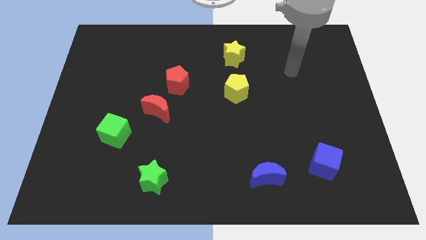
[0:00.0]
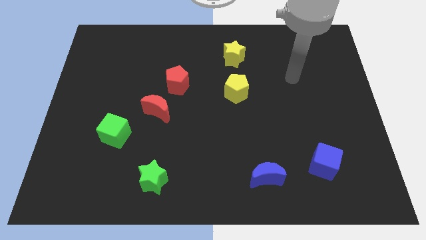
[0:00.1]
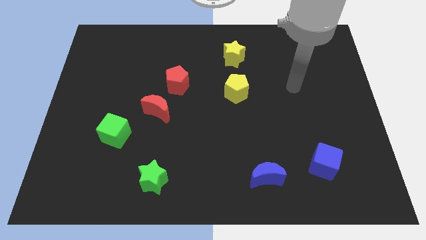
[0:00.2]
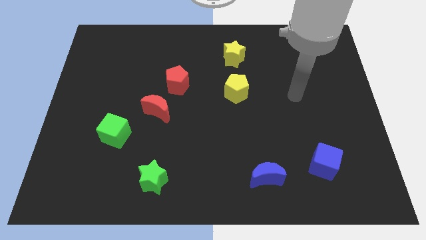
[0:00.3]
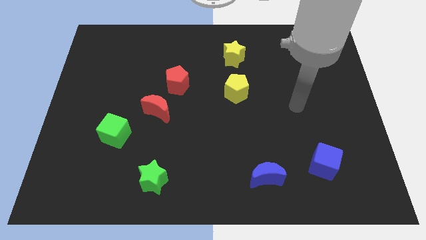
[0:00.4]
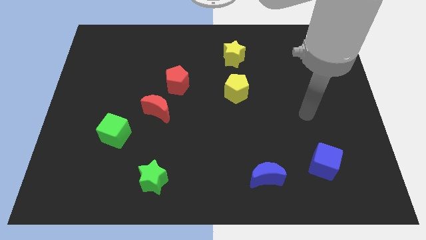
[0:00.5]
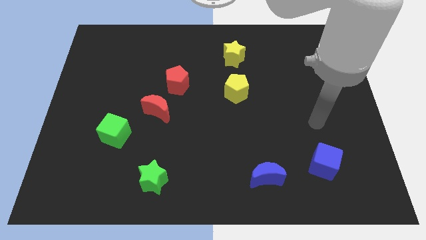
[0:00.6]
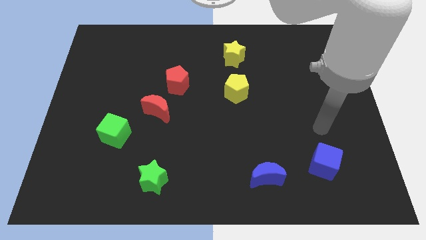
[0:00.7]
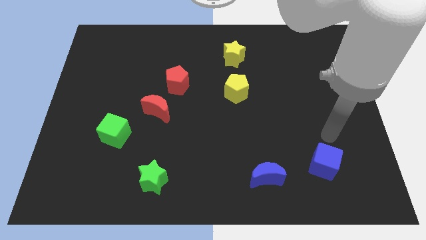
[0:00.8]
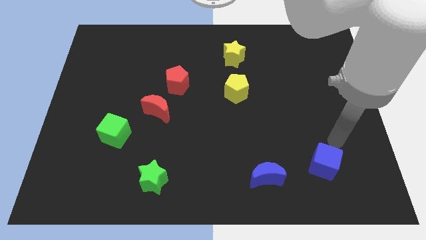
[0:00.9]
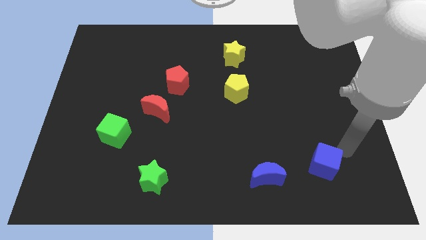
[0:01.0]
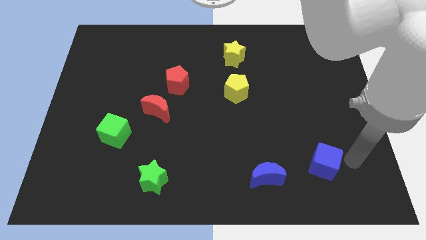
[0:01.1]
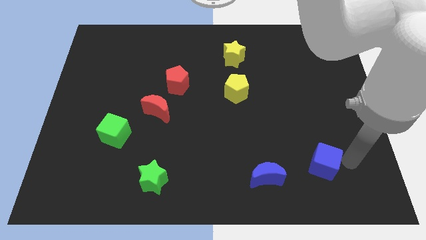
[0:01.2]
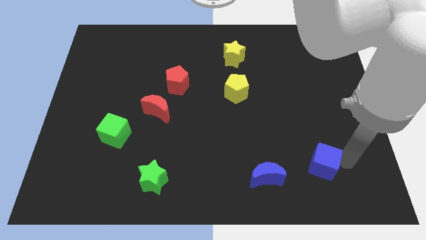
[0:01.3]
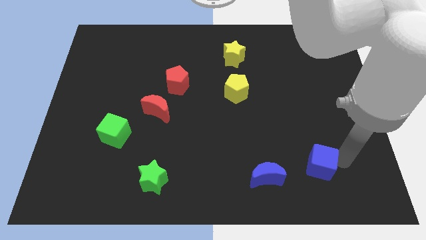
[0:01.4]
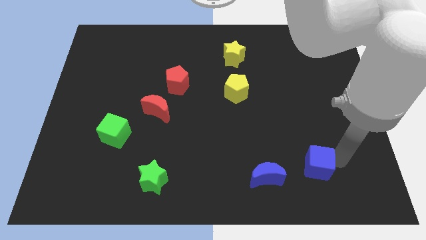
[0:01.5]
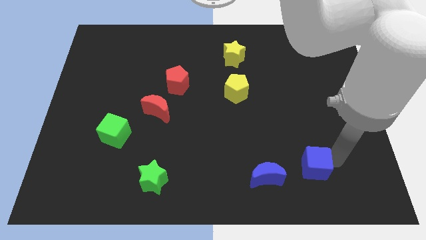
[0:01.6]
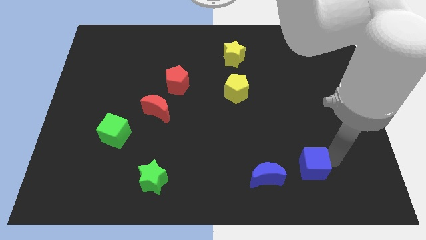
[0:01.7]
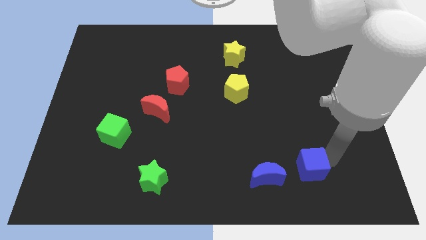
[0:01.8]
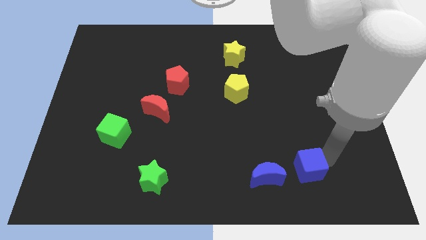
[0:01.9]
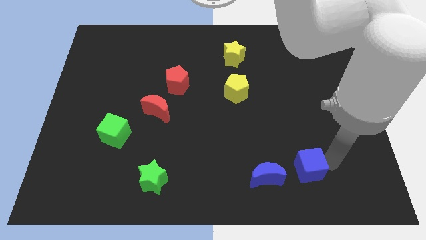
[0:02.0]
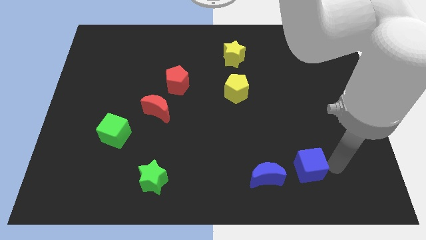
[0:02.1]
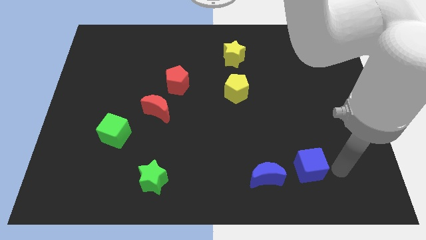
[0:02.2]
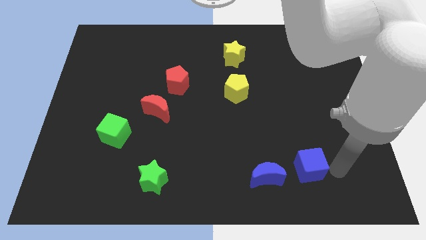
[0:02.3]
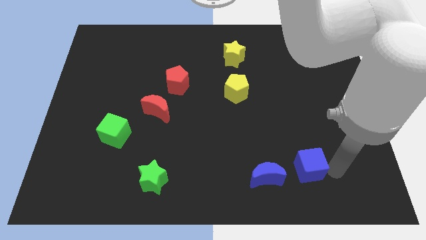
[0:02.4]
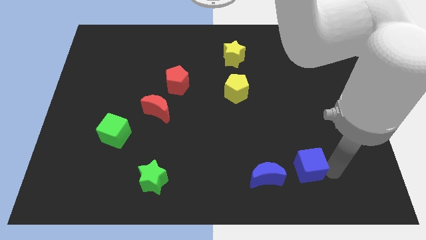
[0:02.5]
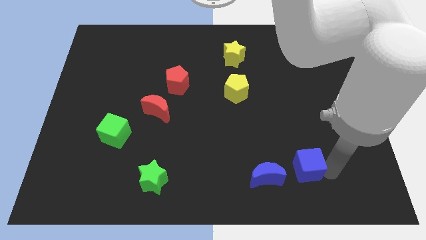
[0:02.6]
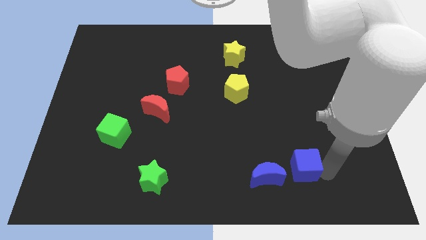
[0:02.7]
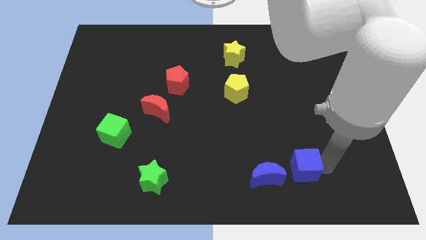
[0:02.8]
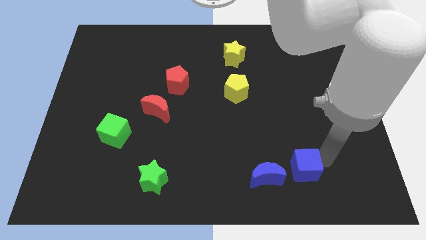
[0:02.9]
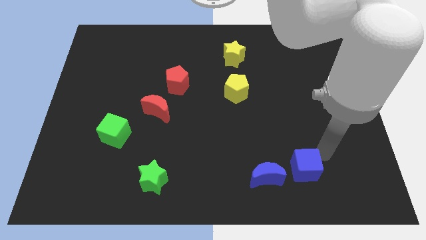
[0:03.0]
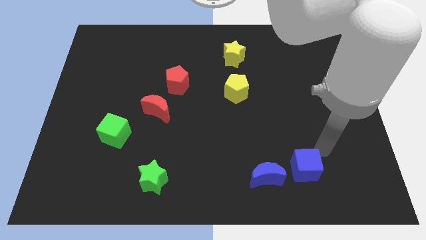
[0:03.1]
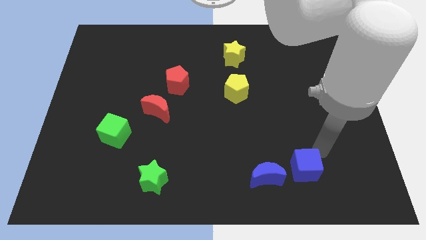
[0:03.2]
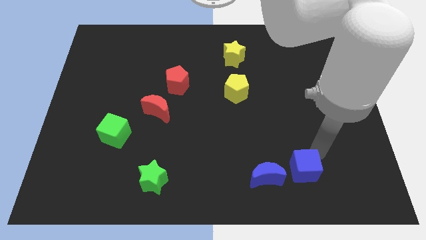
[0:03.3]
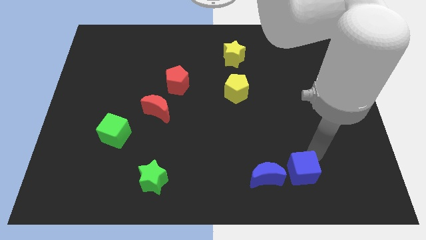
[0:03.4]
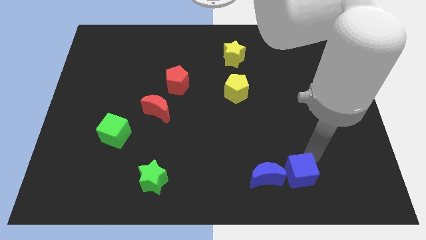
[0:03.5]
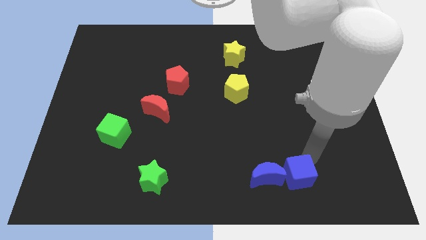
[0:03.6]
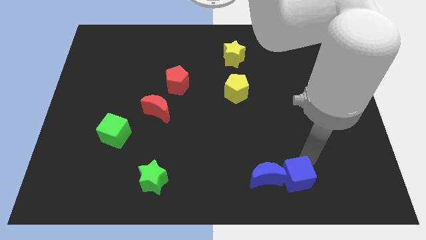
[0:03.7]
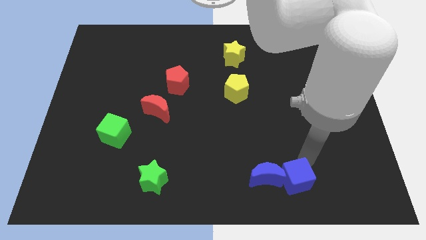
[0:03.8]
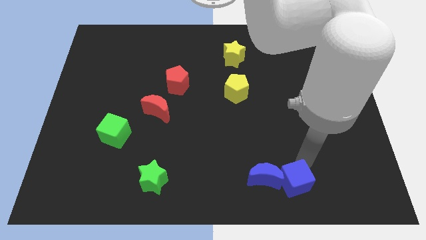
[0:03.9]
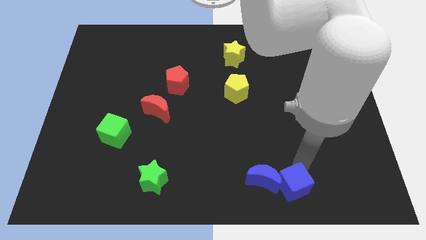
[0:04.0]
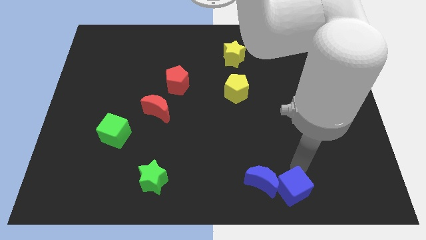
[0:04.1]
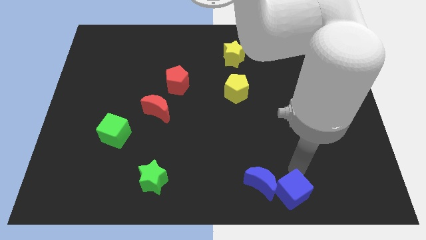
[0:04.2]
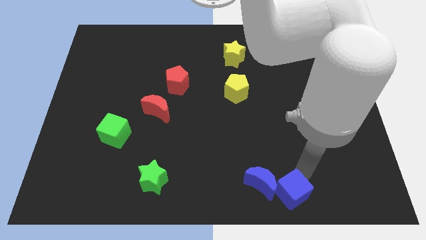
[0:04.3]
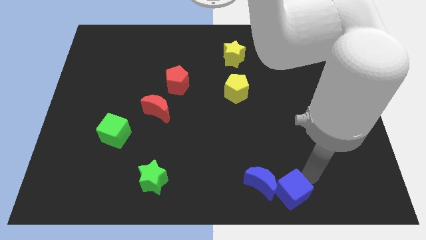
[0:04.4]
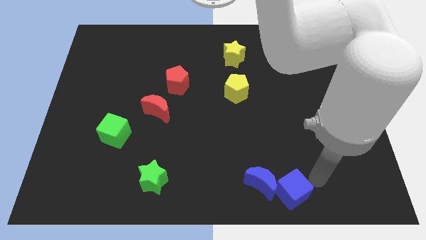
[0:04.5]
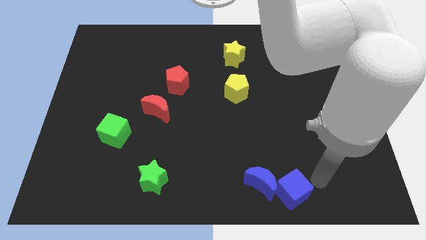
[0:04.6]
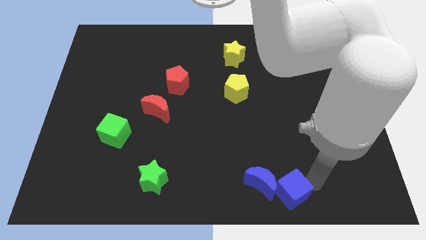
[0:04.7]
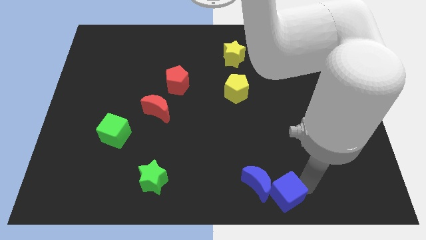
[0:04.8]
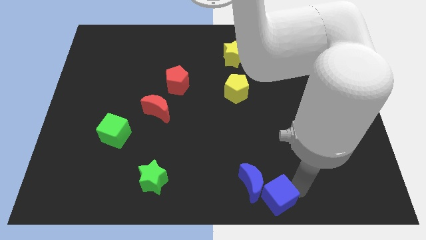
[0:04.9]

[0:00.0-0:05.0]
slide the blue cube to the bottom side

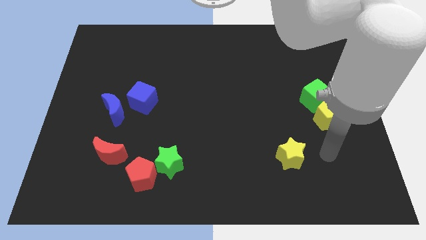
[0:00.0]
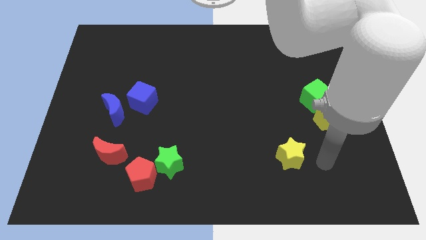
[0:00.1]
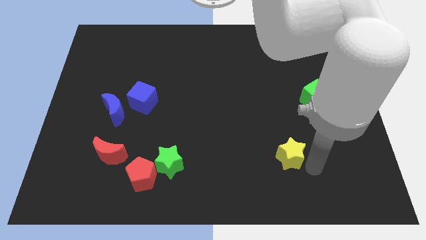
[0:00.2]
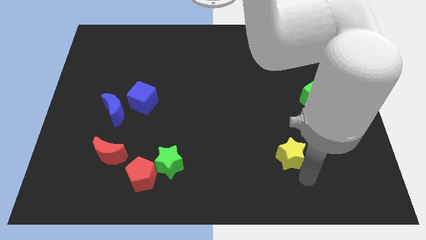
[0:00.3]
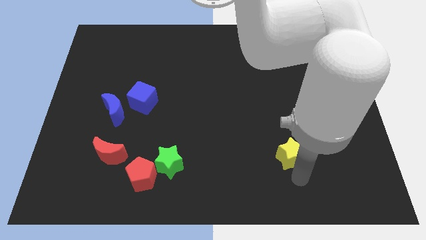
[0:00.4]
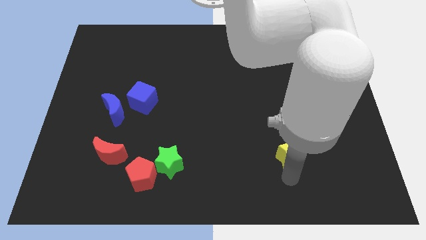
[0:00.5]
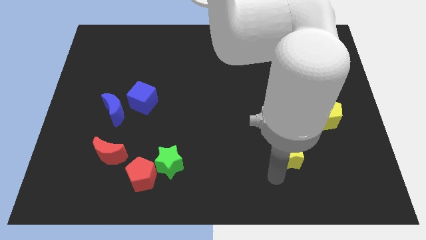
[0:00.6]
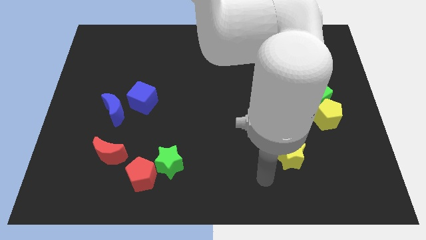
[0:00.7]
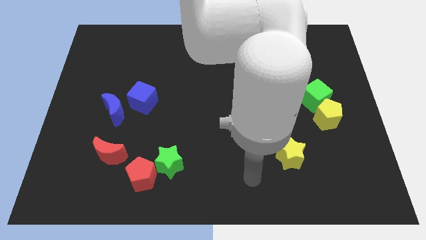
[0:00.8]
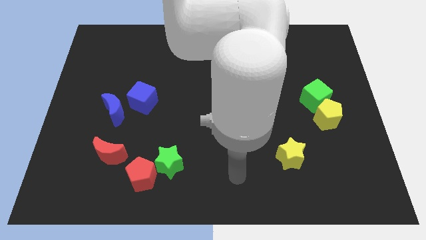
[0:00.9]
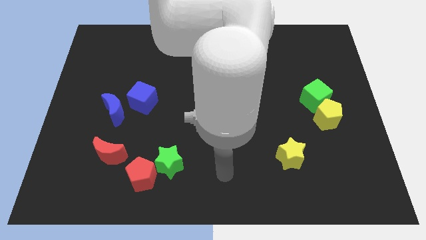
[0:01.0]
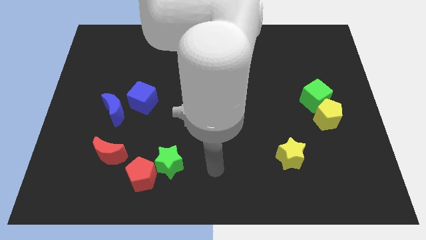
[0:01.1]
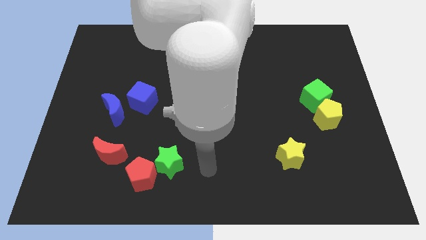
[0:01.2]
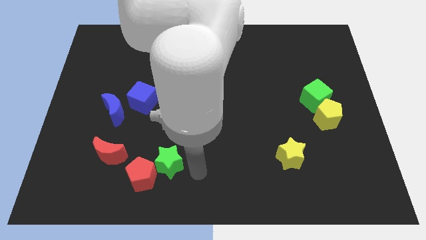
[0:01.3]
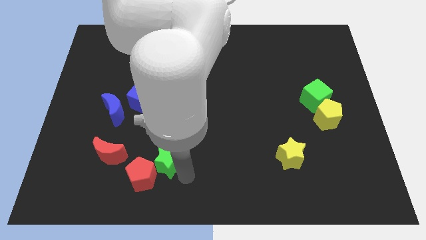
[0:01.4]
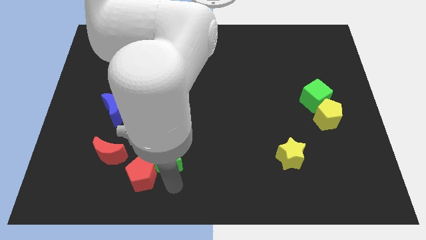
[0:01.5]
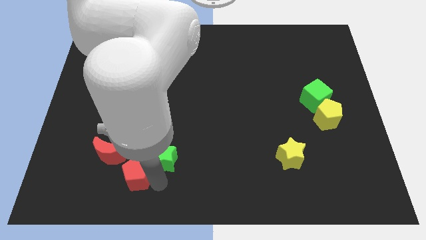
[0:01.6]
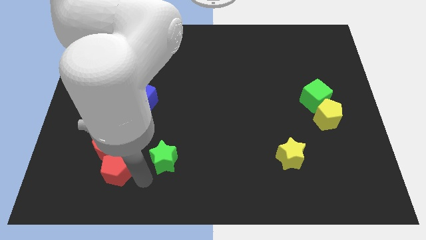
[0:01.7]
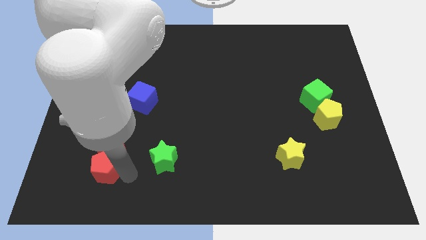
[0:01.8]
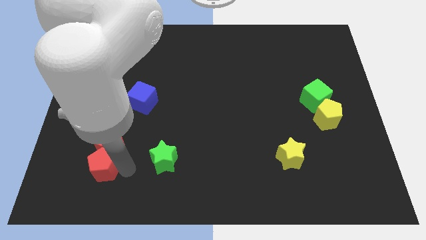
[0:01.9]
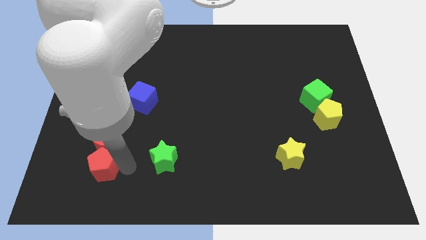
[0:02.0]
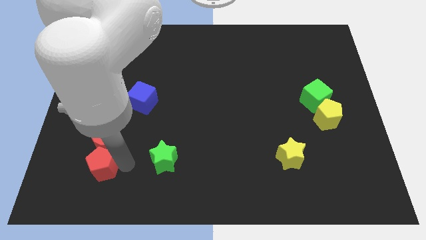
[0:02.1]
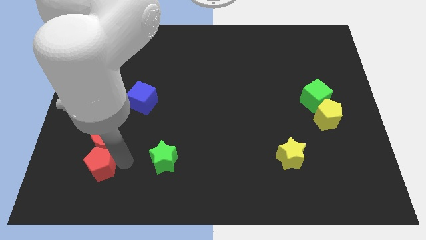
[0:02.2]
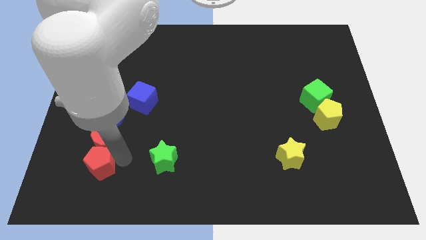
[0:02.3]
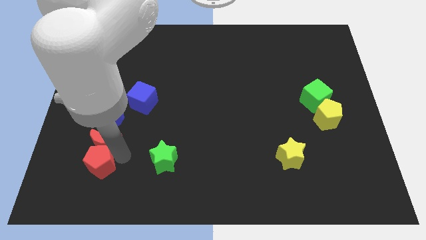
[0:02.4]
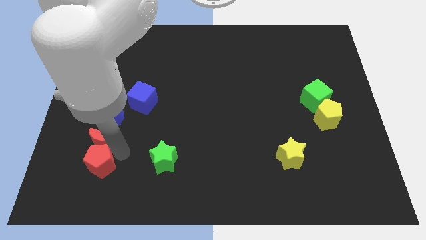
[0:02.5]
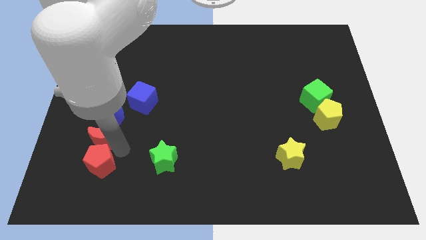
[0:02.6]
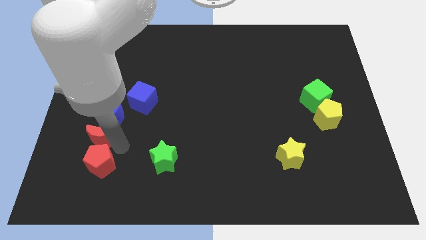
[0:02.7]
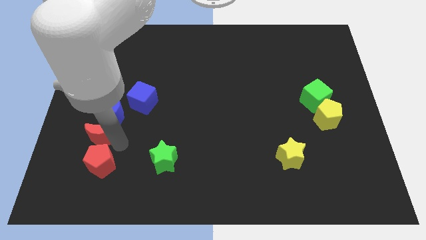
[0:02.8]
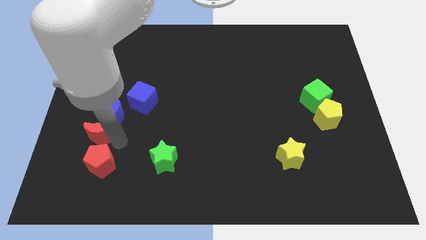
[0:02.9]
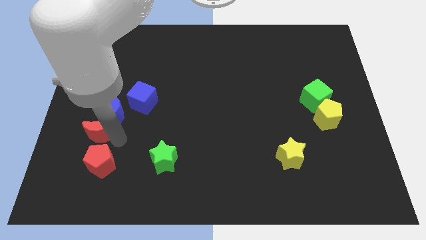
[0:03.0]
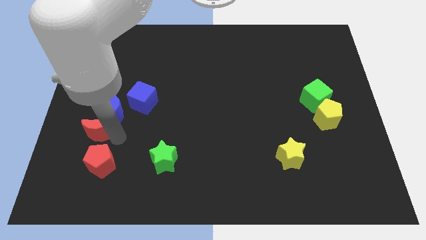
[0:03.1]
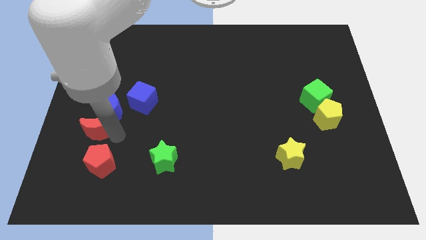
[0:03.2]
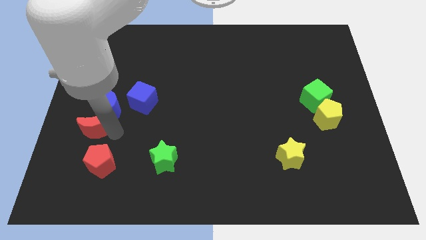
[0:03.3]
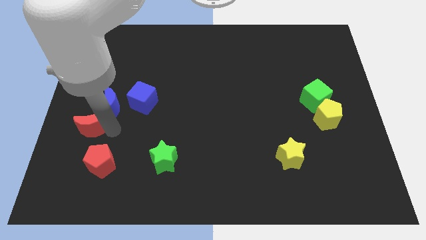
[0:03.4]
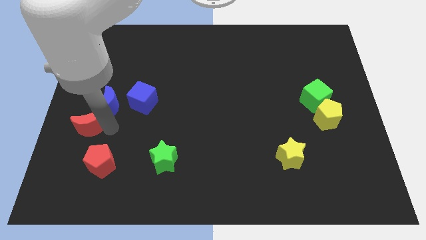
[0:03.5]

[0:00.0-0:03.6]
slide the red moon to the left side of the board
